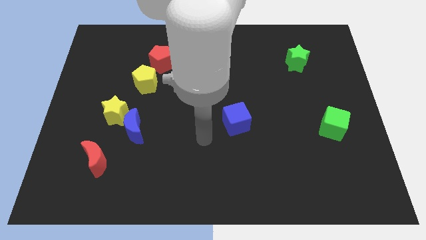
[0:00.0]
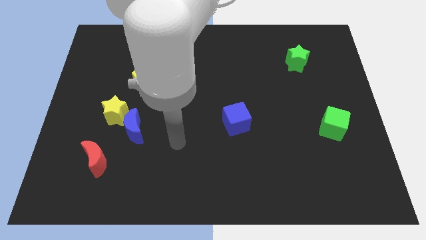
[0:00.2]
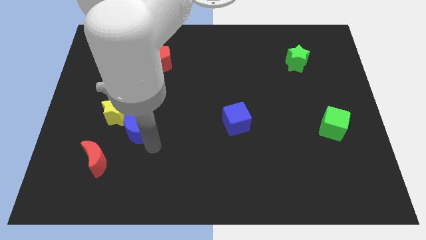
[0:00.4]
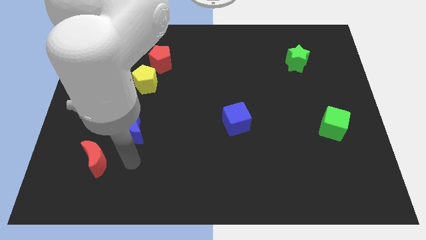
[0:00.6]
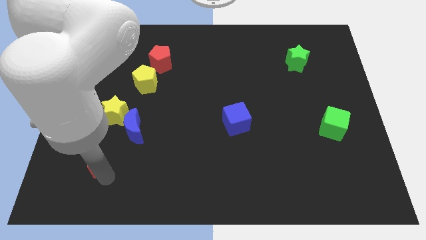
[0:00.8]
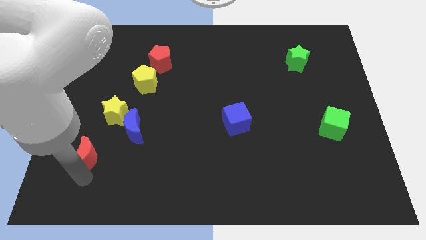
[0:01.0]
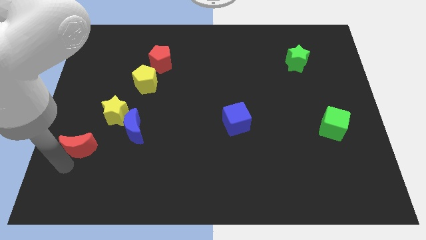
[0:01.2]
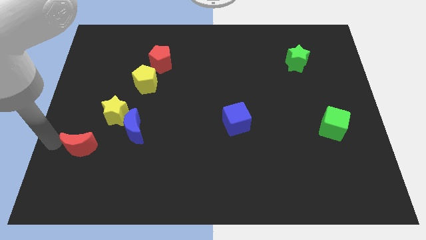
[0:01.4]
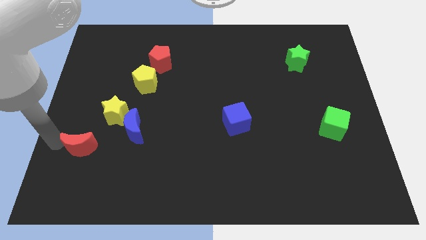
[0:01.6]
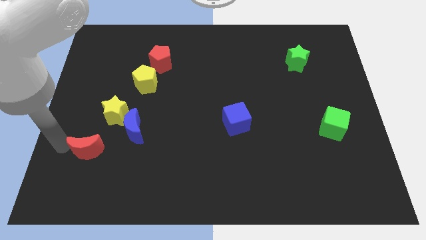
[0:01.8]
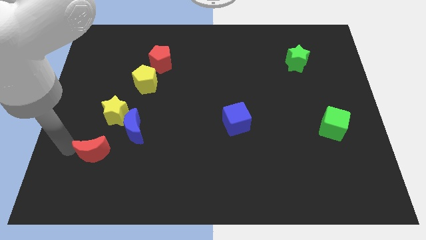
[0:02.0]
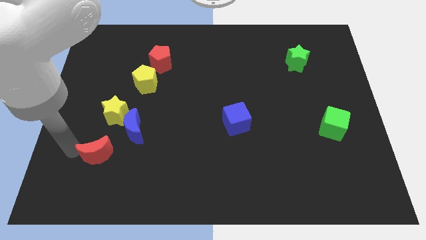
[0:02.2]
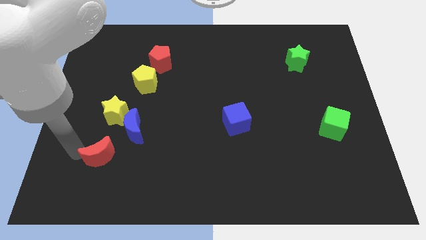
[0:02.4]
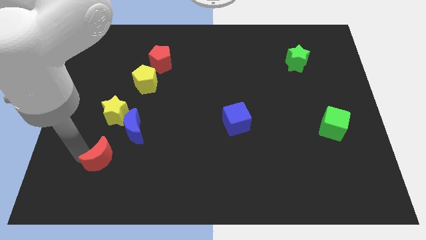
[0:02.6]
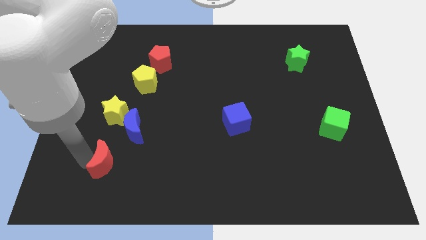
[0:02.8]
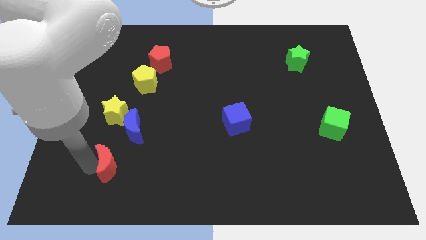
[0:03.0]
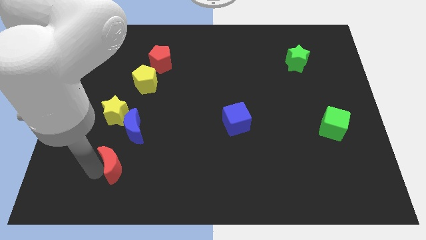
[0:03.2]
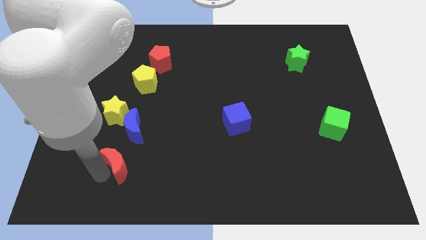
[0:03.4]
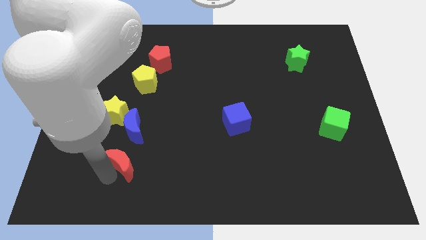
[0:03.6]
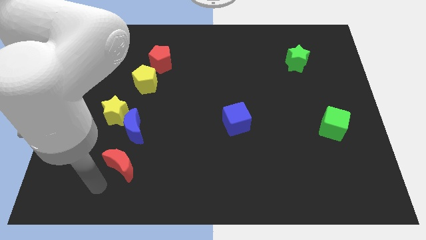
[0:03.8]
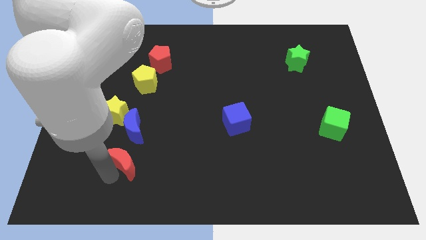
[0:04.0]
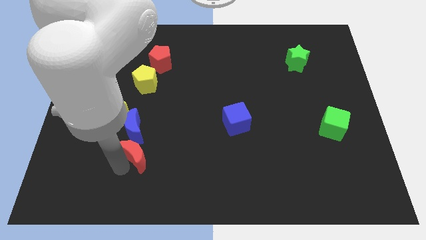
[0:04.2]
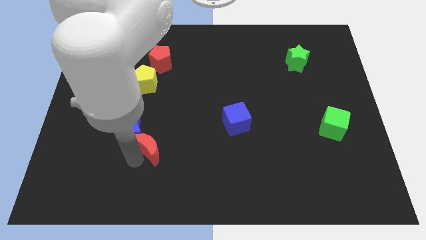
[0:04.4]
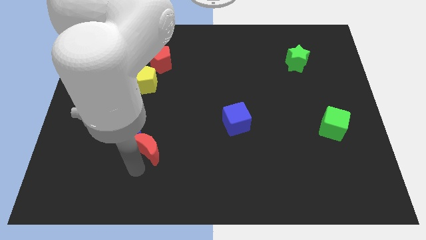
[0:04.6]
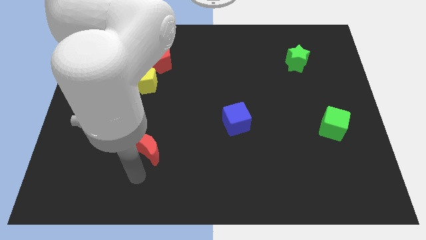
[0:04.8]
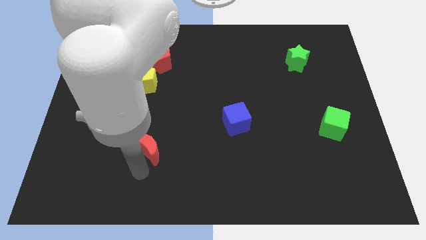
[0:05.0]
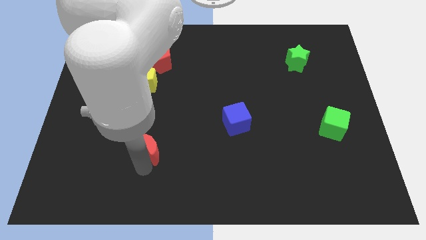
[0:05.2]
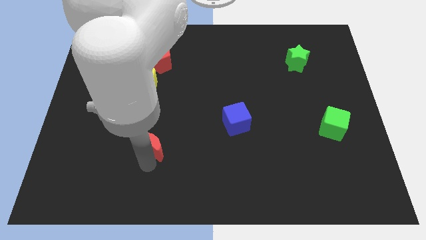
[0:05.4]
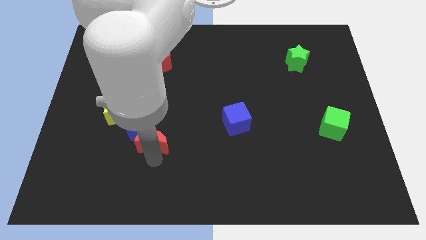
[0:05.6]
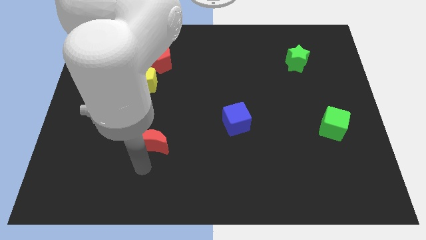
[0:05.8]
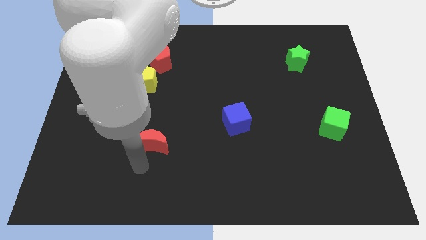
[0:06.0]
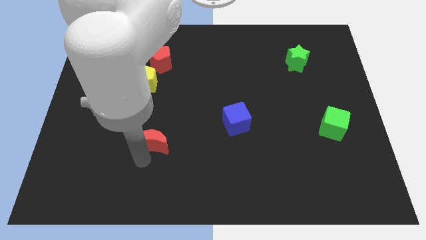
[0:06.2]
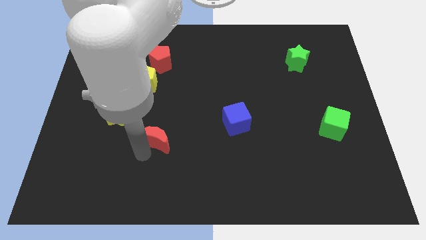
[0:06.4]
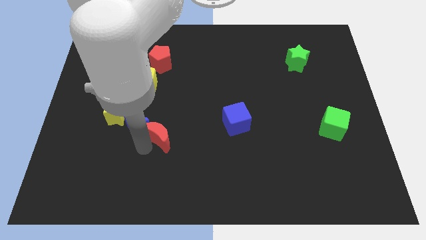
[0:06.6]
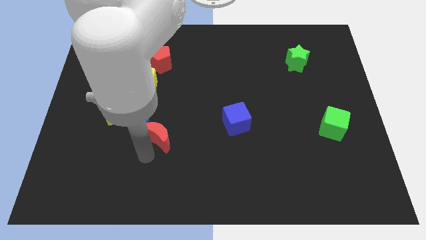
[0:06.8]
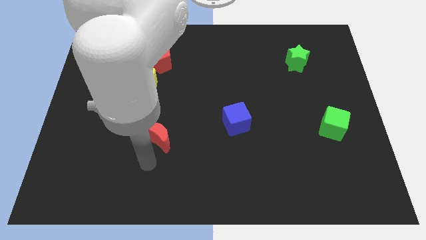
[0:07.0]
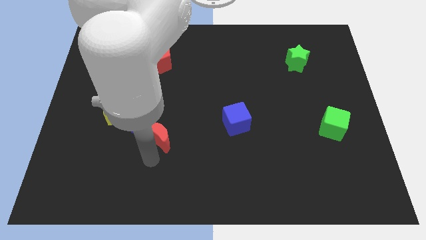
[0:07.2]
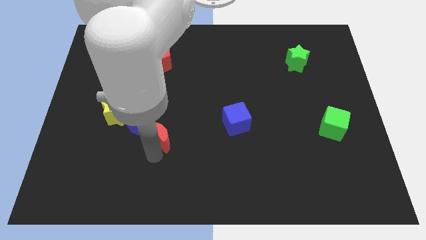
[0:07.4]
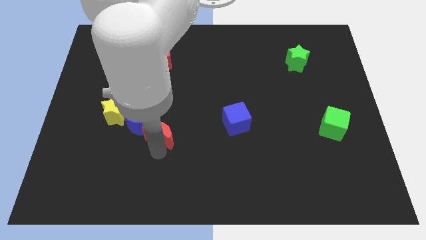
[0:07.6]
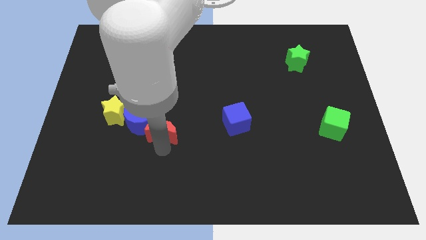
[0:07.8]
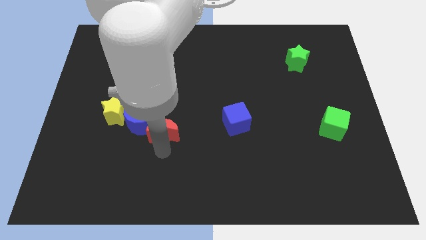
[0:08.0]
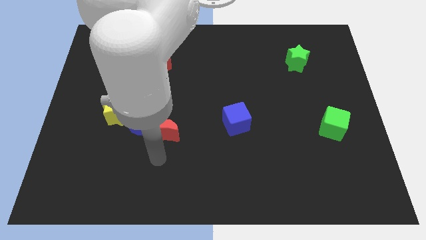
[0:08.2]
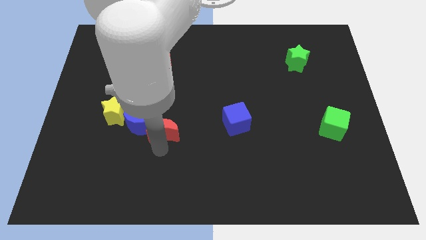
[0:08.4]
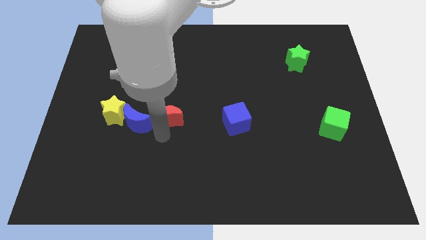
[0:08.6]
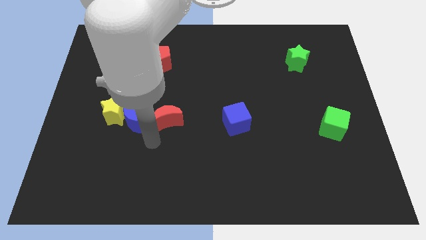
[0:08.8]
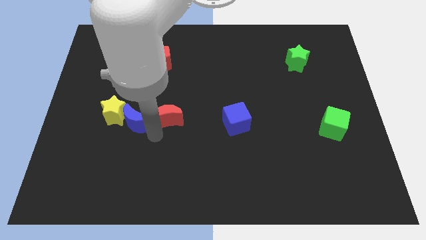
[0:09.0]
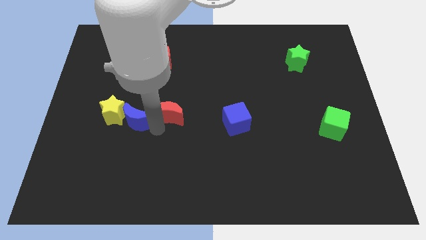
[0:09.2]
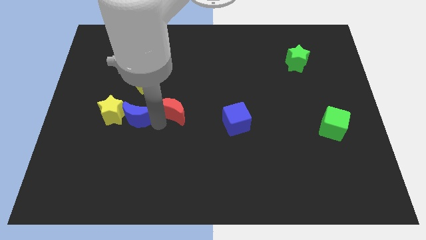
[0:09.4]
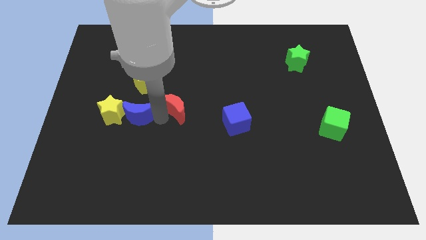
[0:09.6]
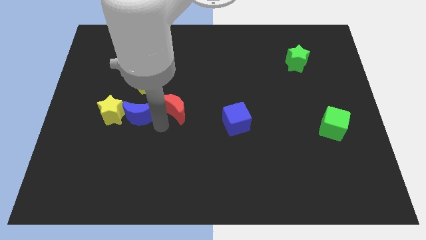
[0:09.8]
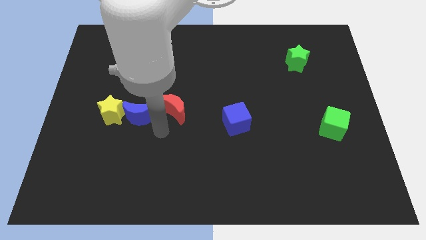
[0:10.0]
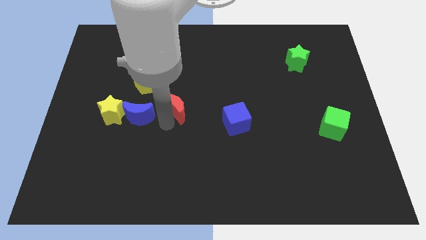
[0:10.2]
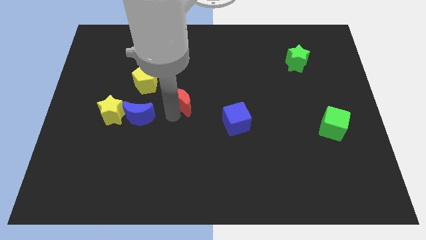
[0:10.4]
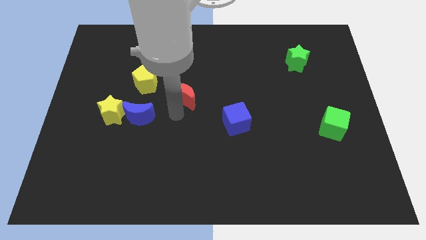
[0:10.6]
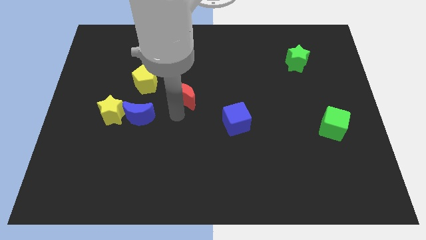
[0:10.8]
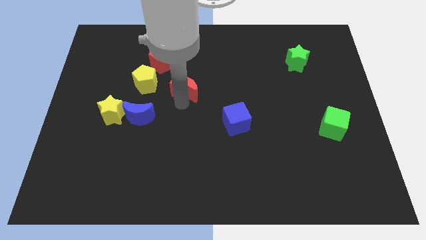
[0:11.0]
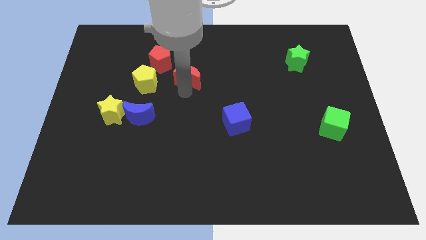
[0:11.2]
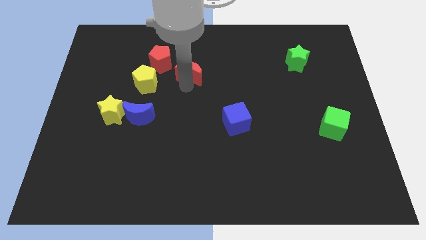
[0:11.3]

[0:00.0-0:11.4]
move the red moon just right of the red pentagon

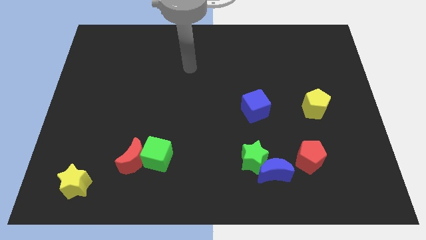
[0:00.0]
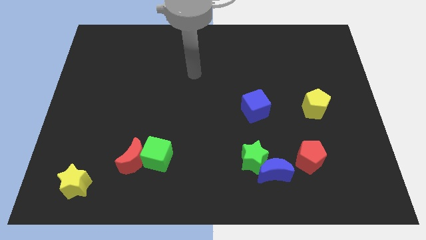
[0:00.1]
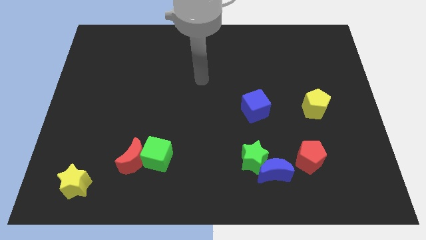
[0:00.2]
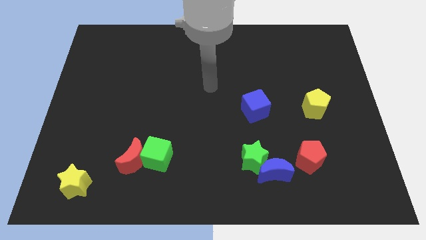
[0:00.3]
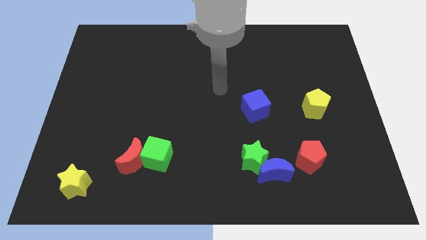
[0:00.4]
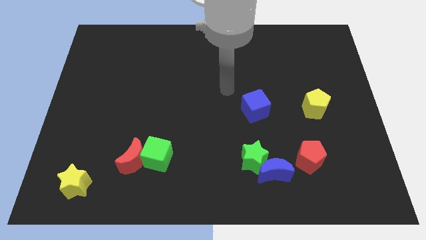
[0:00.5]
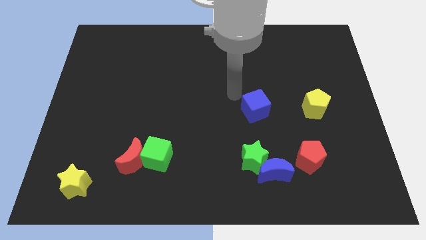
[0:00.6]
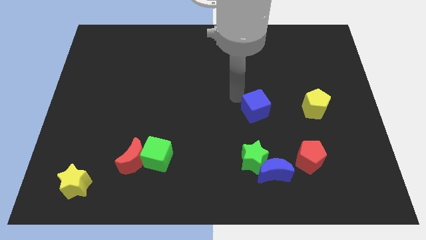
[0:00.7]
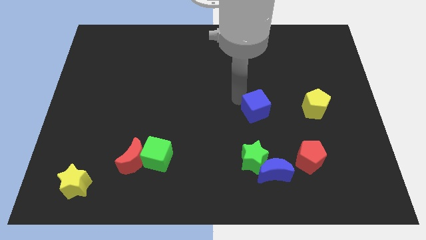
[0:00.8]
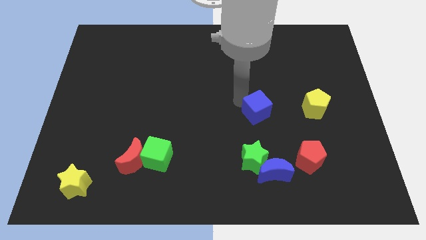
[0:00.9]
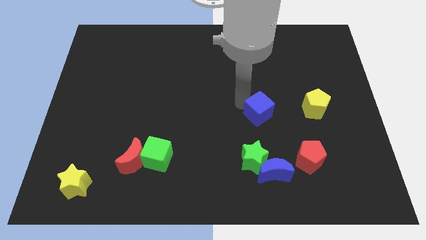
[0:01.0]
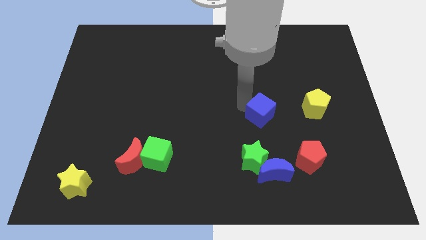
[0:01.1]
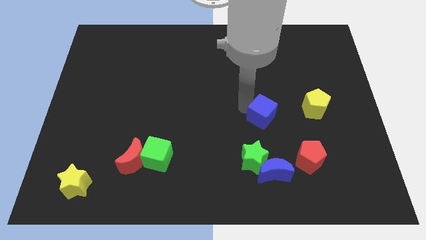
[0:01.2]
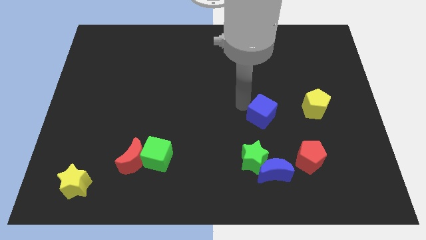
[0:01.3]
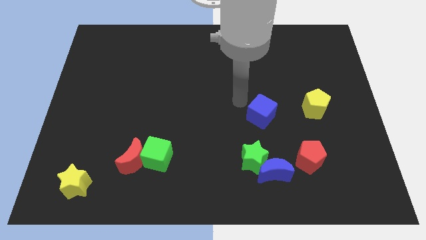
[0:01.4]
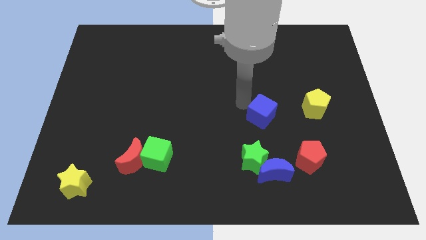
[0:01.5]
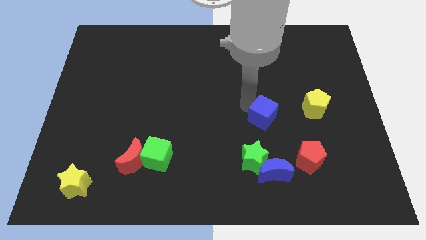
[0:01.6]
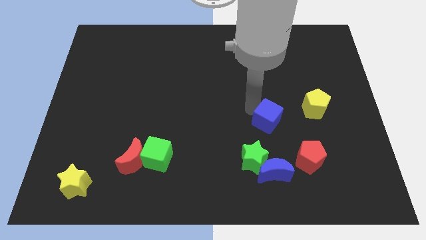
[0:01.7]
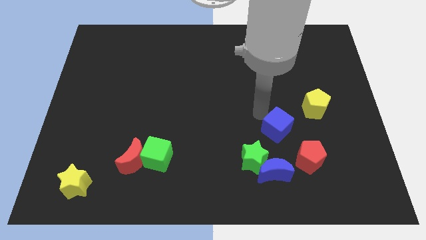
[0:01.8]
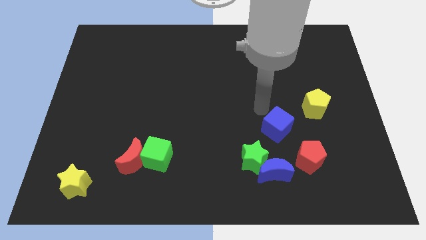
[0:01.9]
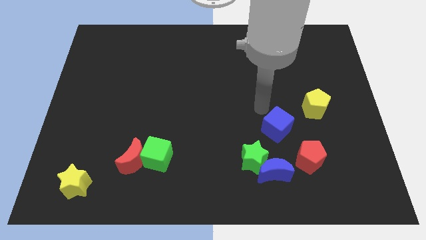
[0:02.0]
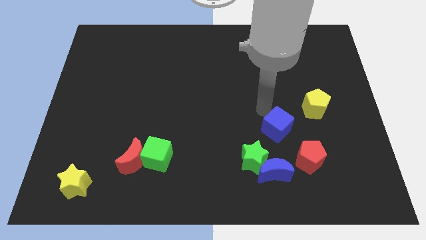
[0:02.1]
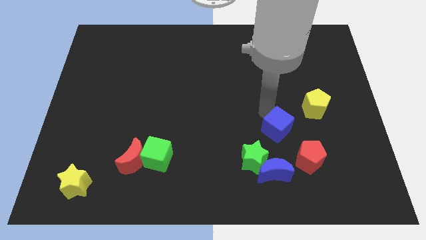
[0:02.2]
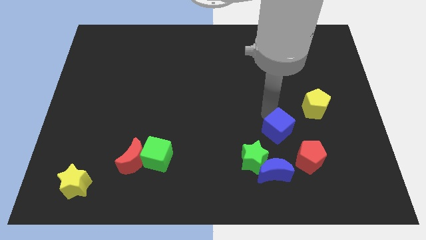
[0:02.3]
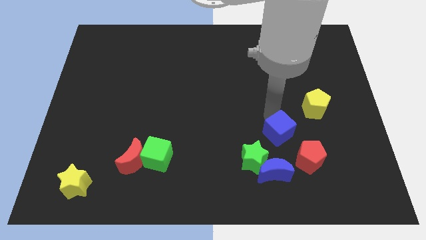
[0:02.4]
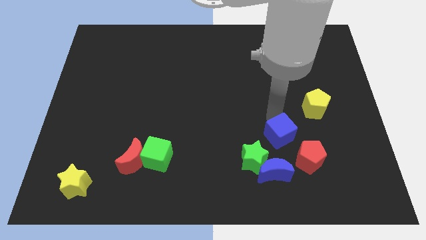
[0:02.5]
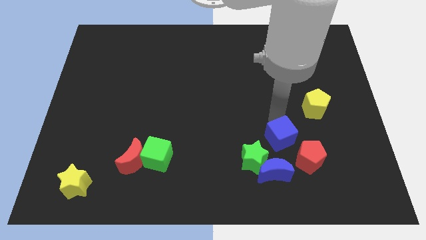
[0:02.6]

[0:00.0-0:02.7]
slide the blue cube to the top right of the blue moon
